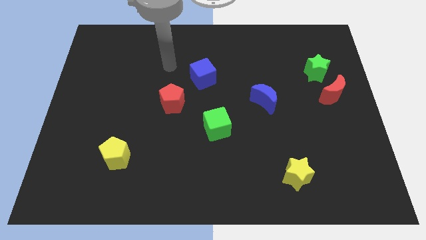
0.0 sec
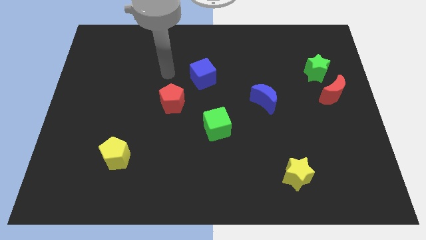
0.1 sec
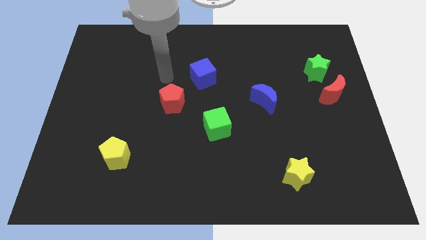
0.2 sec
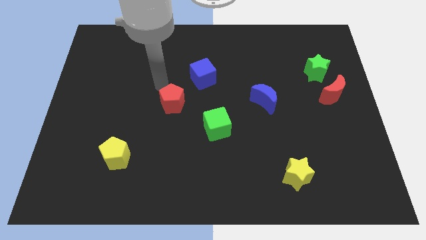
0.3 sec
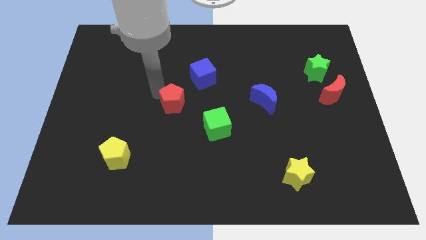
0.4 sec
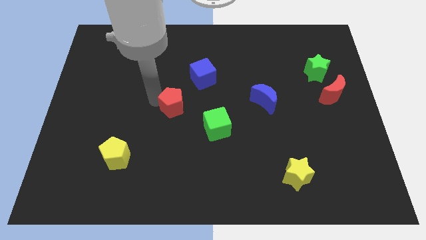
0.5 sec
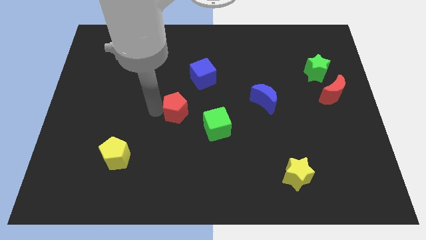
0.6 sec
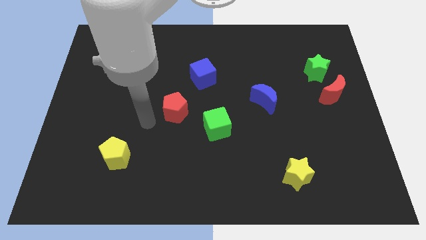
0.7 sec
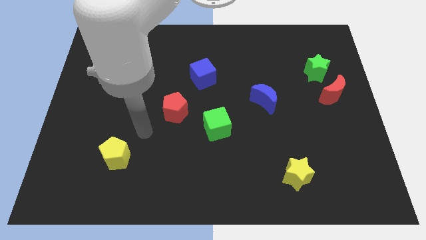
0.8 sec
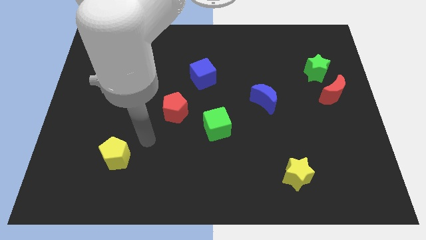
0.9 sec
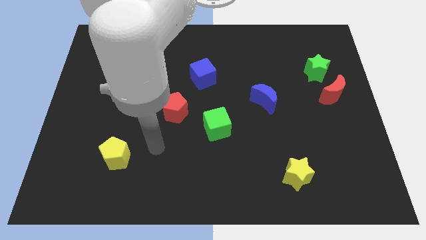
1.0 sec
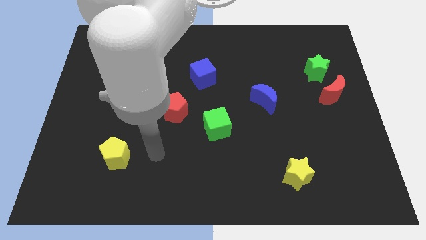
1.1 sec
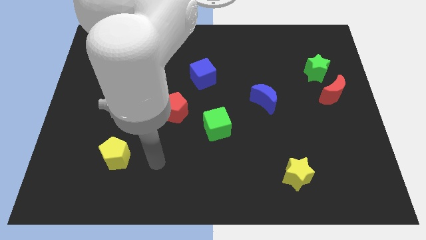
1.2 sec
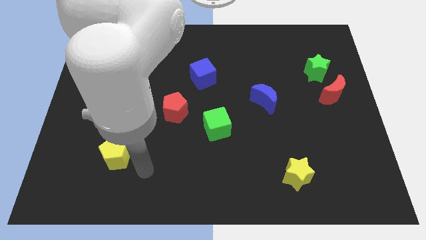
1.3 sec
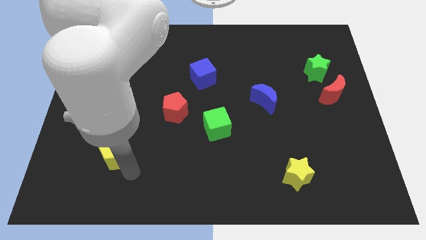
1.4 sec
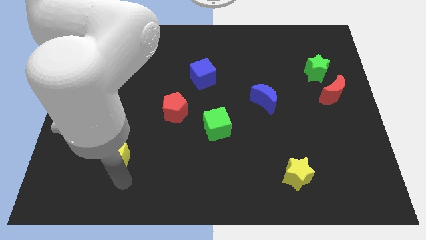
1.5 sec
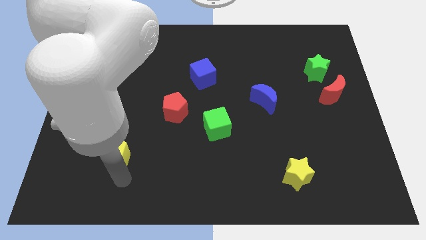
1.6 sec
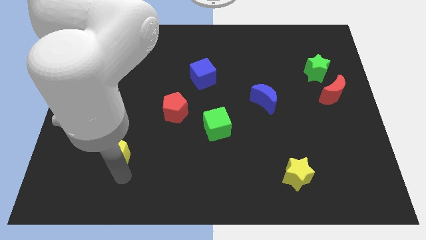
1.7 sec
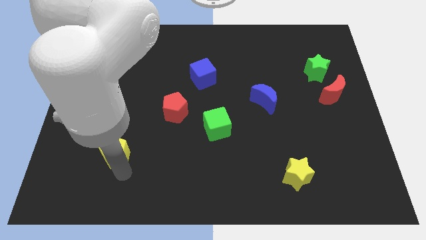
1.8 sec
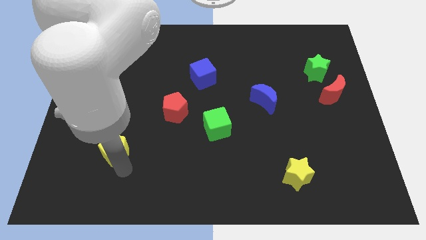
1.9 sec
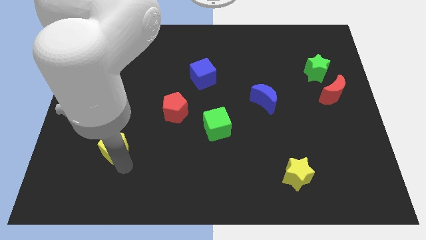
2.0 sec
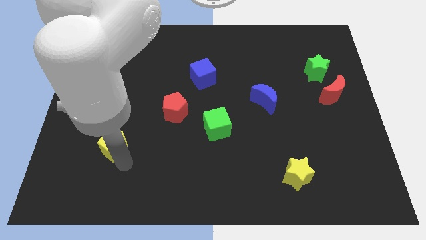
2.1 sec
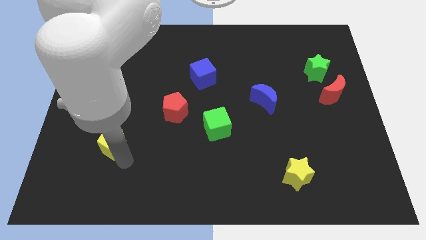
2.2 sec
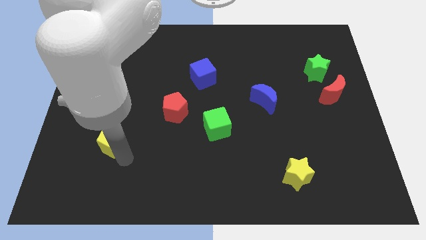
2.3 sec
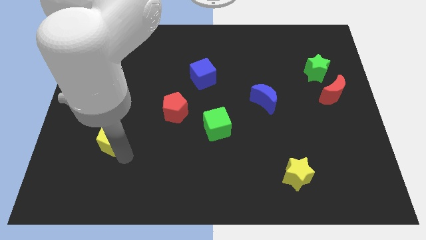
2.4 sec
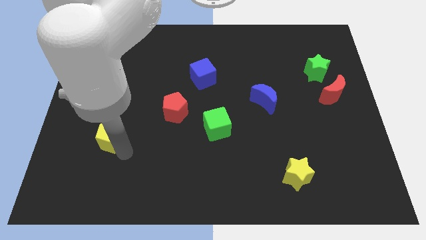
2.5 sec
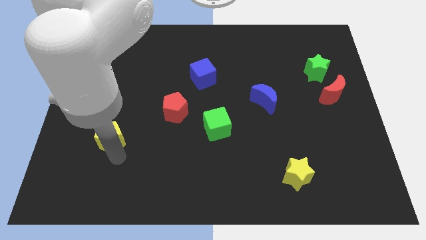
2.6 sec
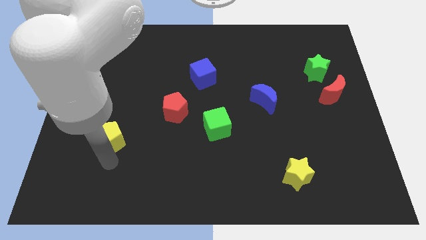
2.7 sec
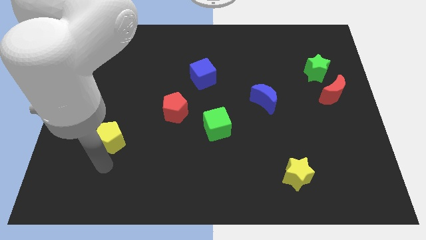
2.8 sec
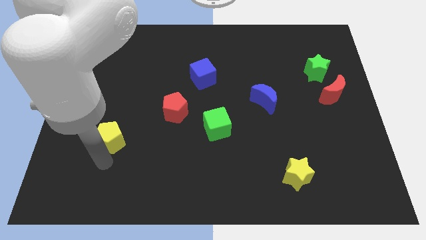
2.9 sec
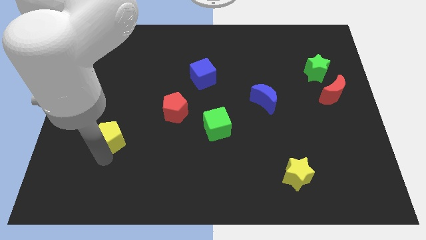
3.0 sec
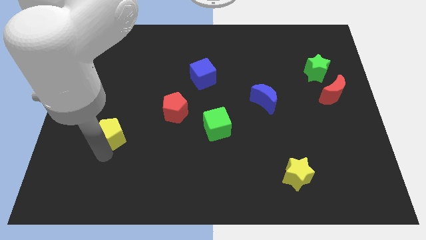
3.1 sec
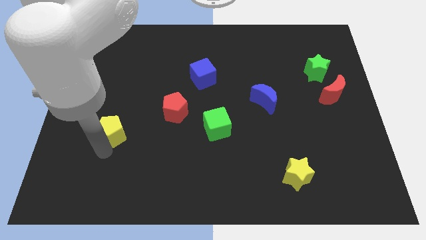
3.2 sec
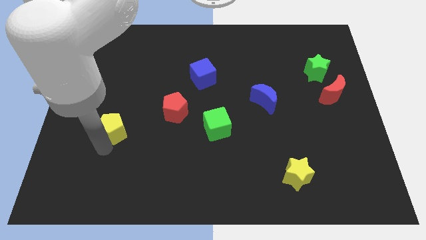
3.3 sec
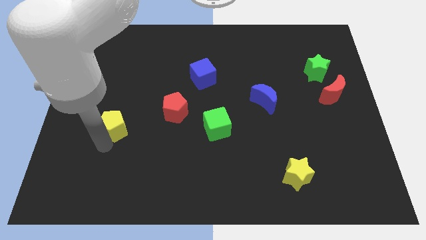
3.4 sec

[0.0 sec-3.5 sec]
slide the yellow pentagon a little up

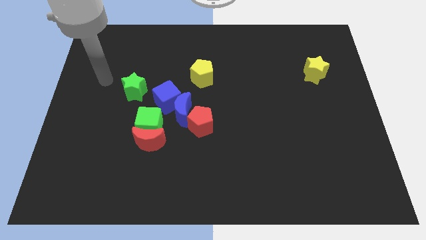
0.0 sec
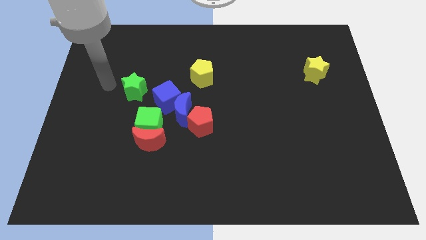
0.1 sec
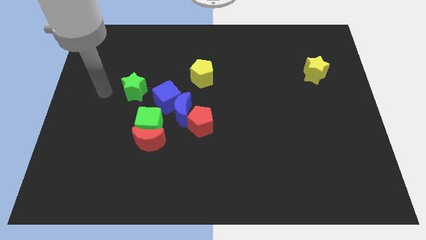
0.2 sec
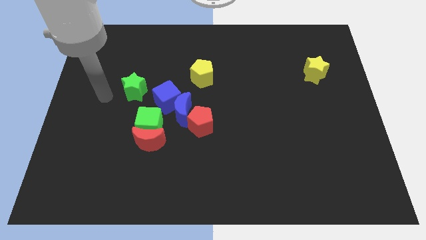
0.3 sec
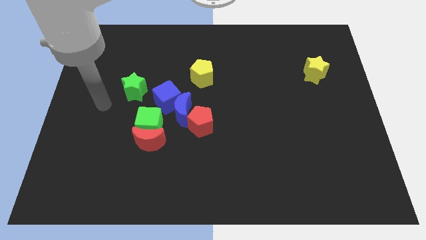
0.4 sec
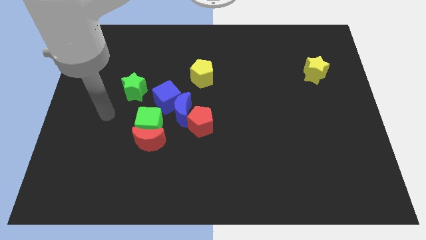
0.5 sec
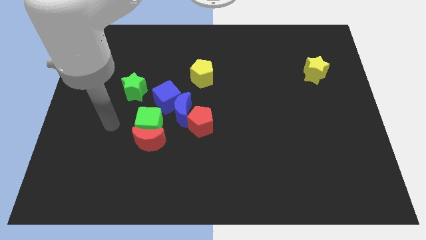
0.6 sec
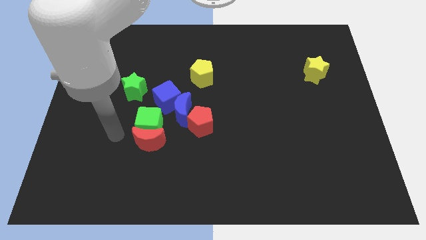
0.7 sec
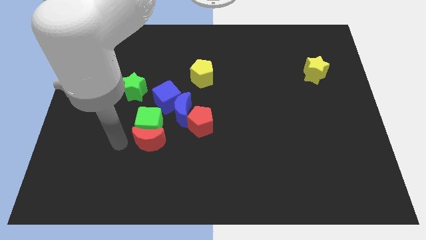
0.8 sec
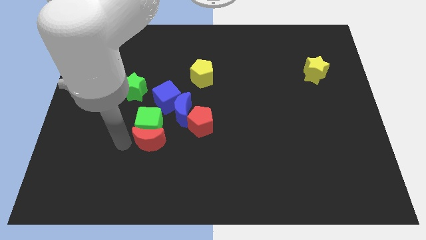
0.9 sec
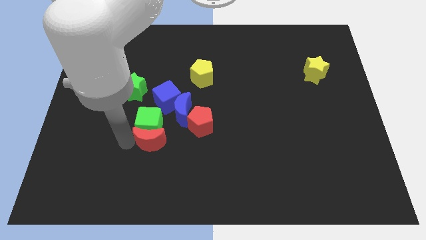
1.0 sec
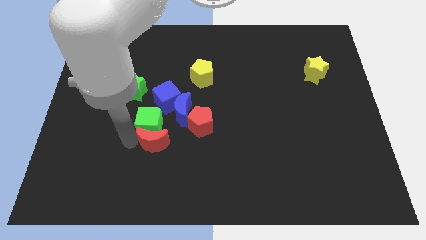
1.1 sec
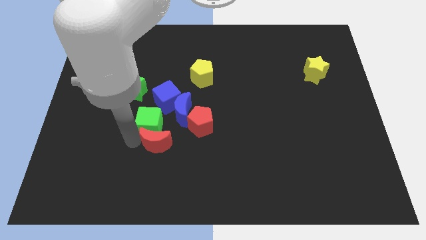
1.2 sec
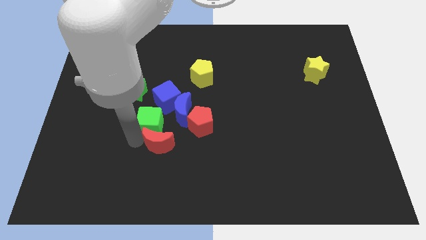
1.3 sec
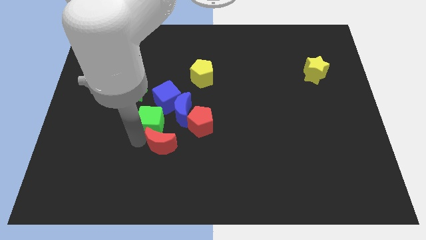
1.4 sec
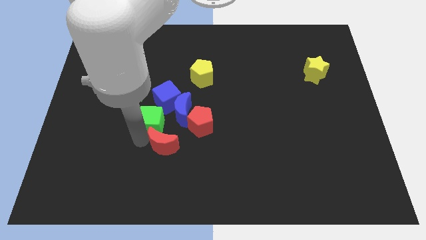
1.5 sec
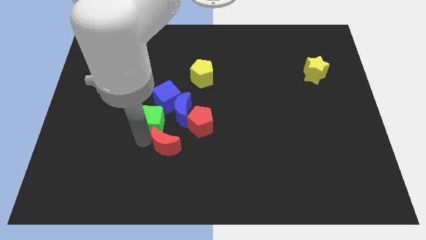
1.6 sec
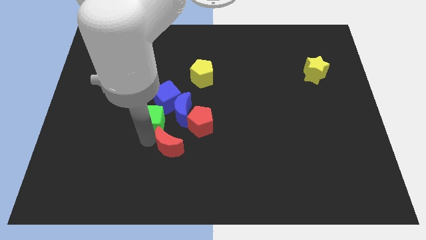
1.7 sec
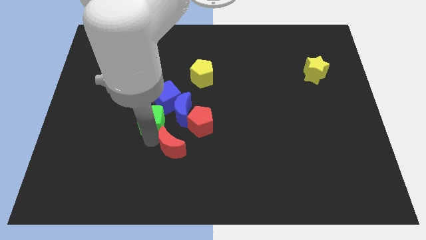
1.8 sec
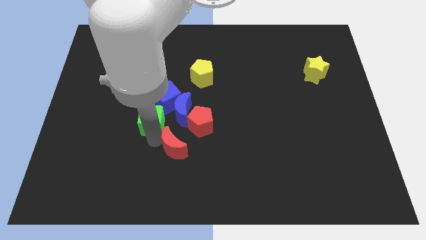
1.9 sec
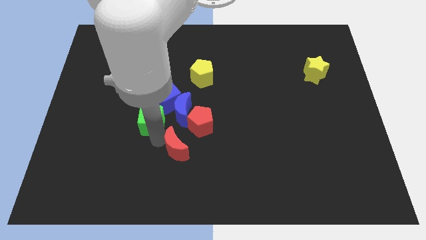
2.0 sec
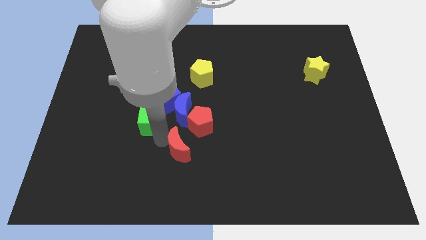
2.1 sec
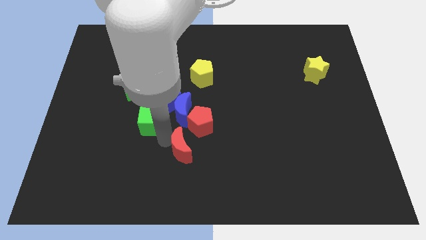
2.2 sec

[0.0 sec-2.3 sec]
slightly slide the red moon right

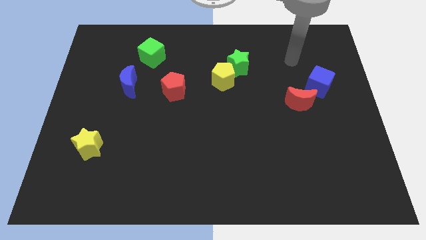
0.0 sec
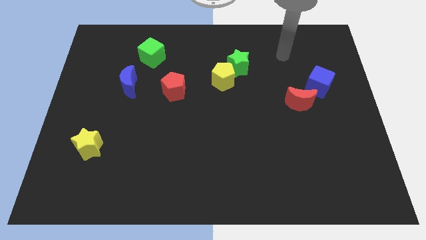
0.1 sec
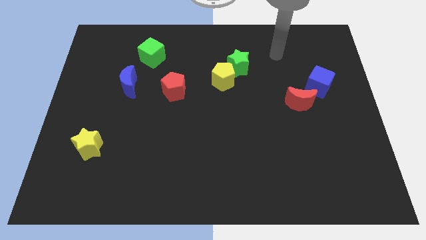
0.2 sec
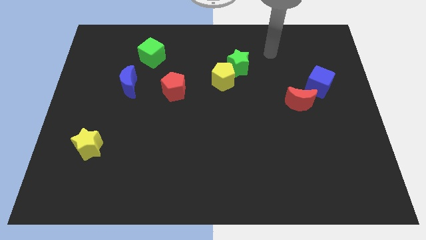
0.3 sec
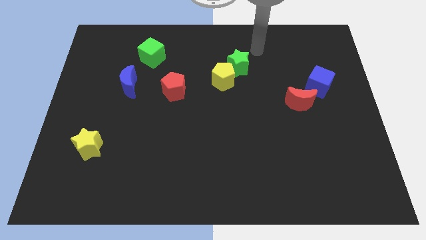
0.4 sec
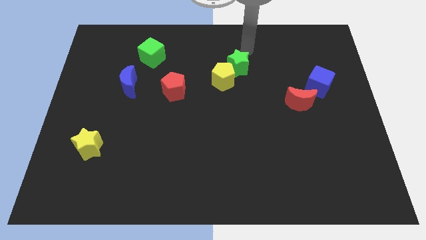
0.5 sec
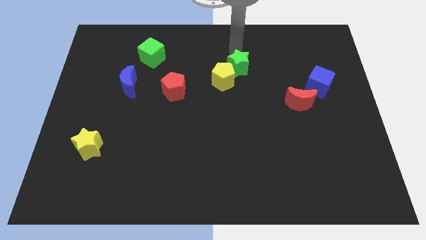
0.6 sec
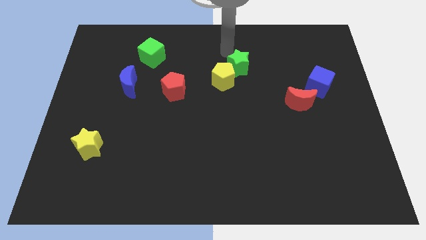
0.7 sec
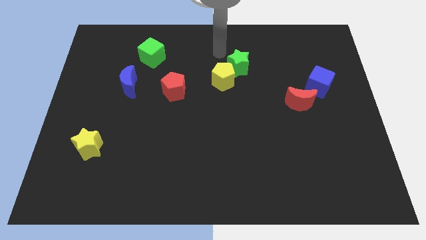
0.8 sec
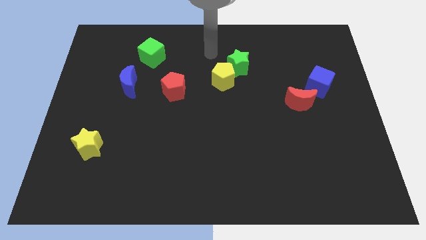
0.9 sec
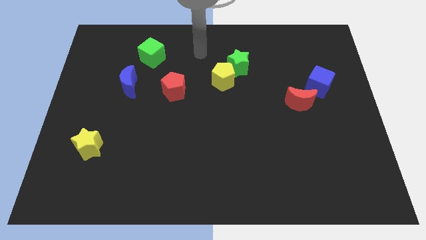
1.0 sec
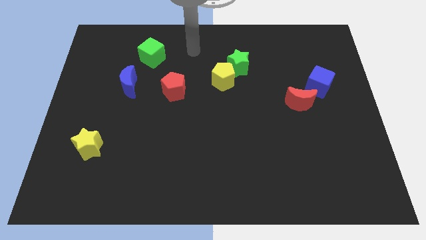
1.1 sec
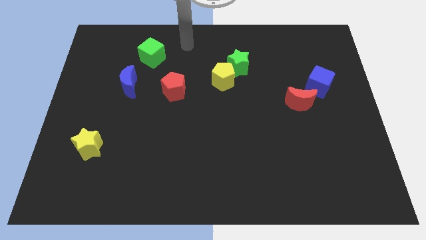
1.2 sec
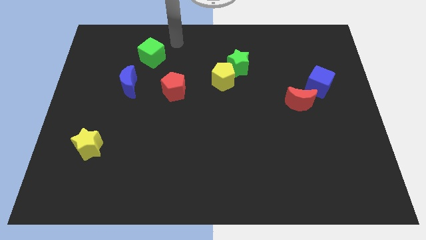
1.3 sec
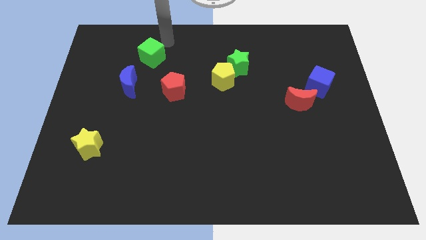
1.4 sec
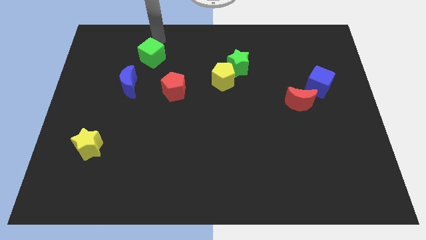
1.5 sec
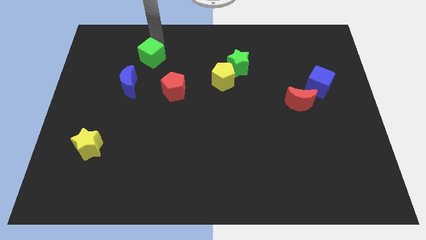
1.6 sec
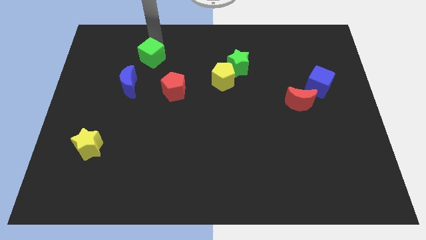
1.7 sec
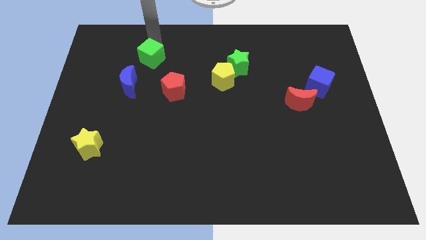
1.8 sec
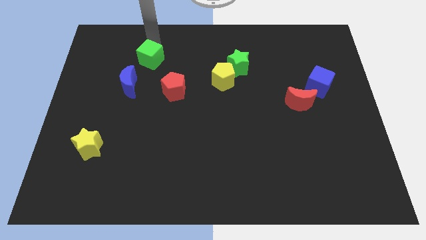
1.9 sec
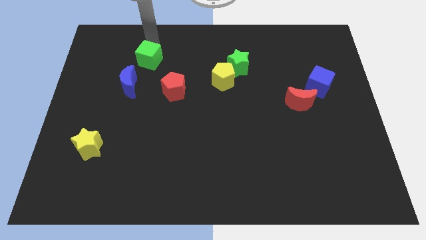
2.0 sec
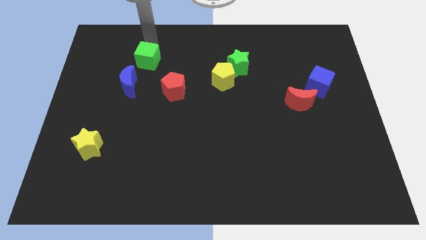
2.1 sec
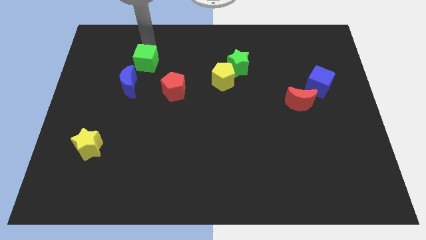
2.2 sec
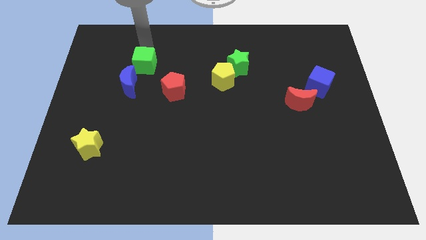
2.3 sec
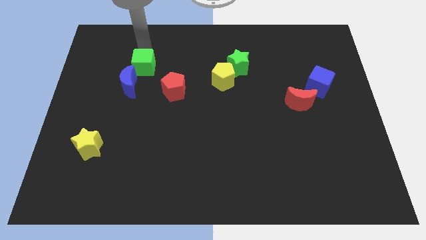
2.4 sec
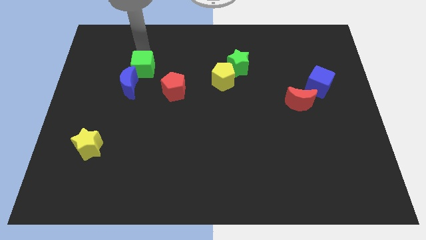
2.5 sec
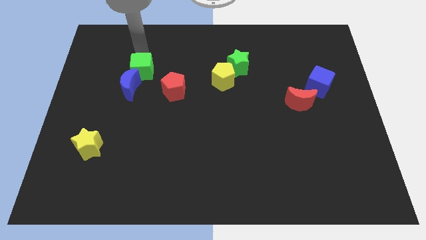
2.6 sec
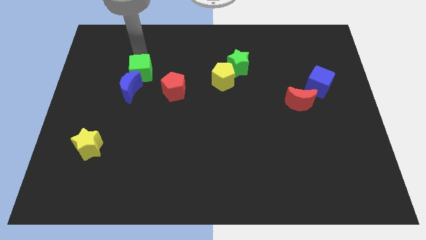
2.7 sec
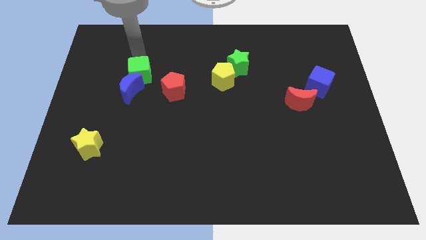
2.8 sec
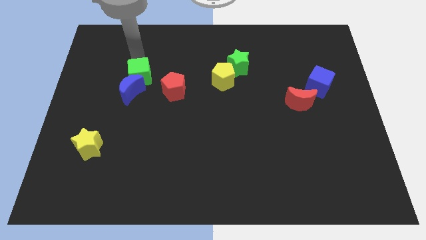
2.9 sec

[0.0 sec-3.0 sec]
slightly move the green cube down
